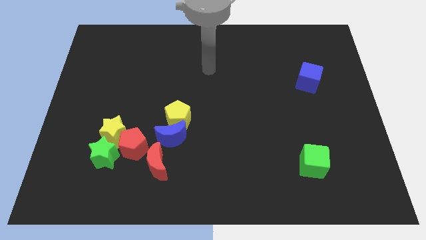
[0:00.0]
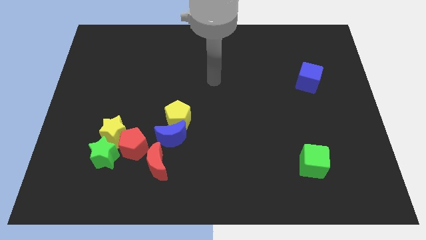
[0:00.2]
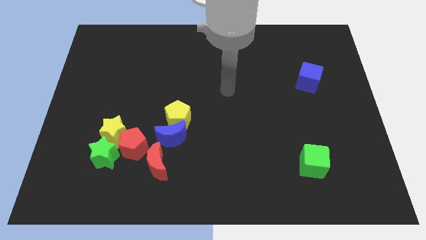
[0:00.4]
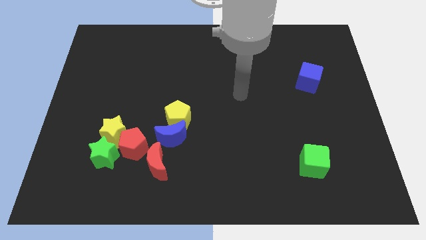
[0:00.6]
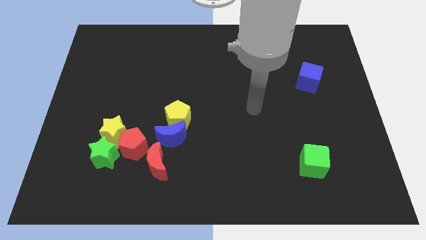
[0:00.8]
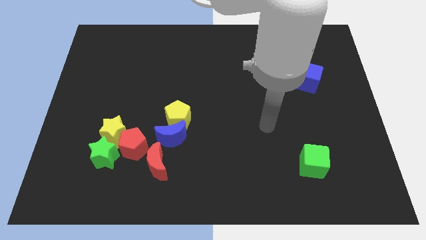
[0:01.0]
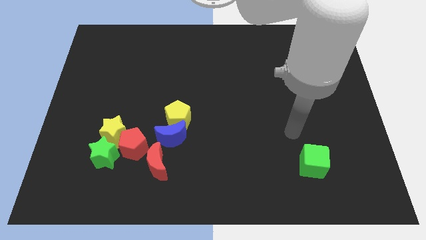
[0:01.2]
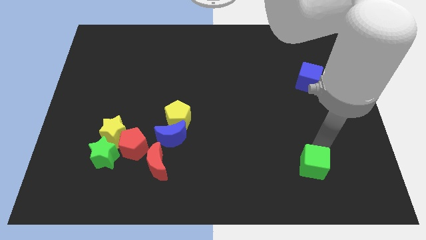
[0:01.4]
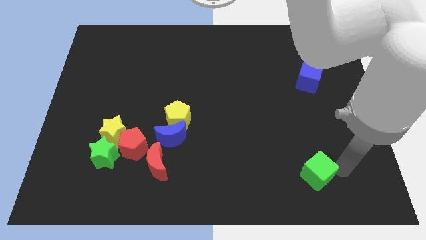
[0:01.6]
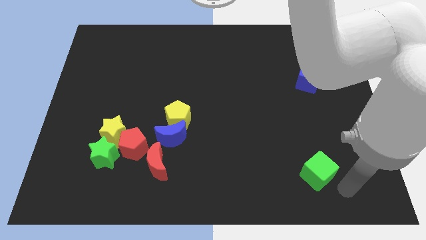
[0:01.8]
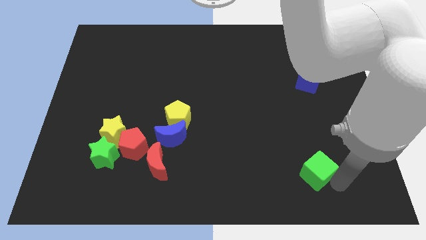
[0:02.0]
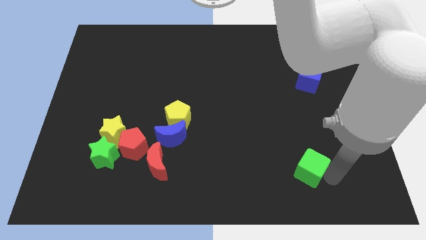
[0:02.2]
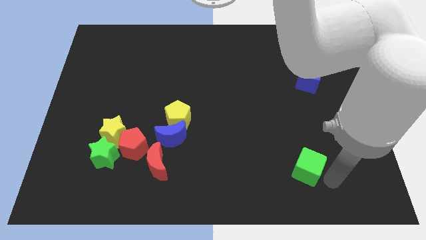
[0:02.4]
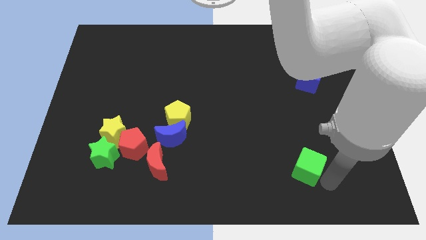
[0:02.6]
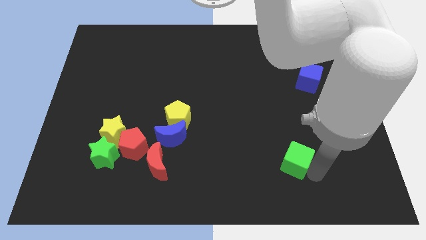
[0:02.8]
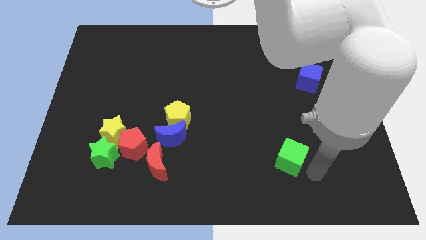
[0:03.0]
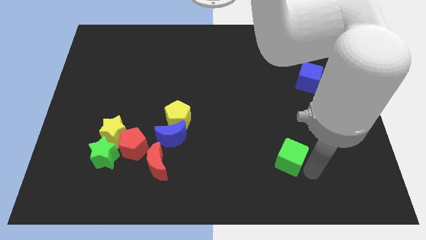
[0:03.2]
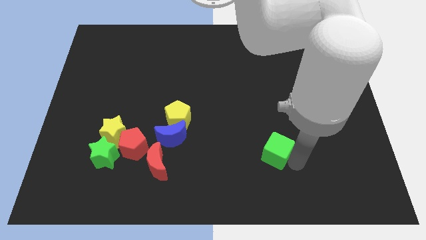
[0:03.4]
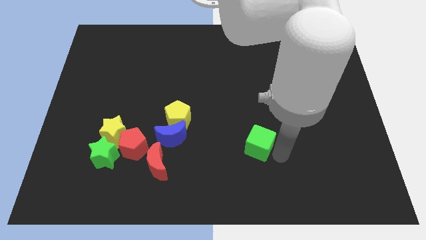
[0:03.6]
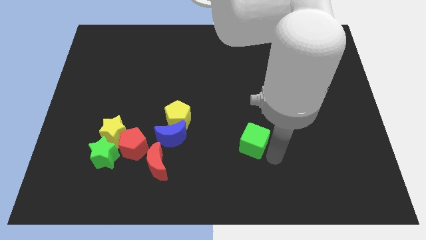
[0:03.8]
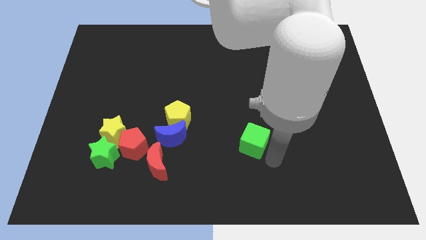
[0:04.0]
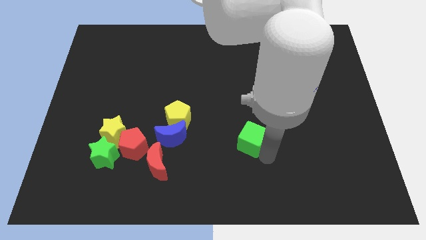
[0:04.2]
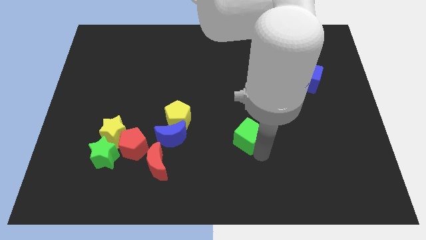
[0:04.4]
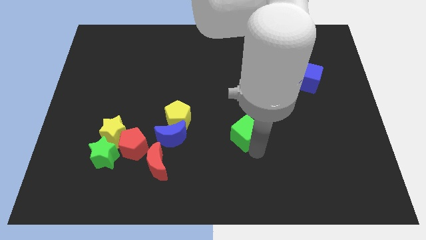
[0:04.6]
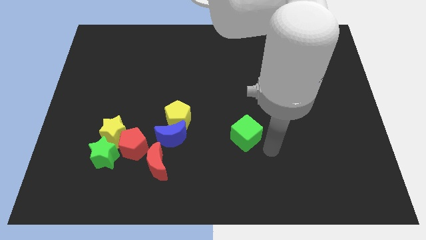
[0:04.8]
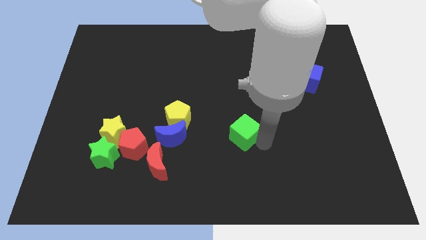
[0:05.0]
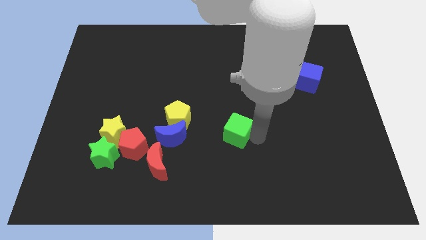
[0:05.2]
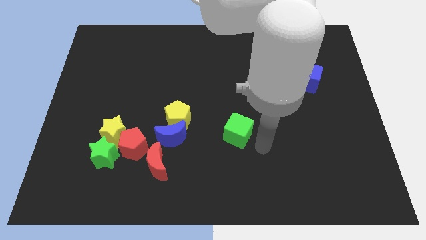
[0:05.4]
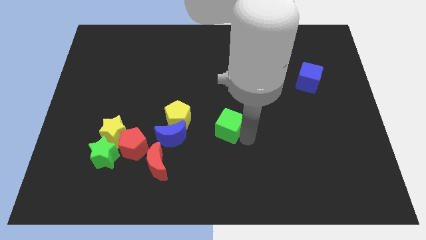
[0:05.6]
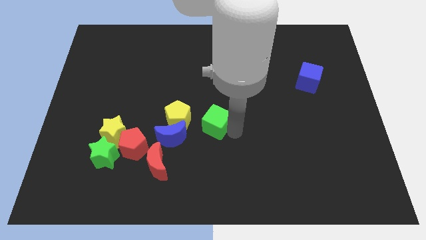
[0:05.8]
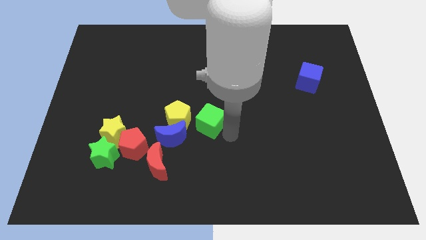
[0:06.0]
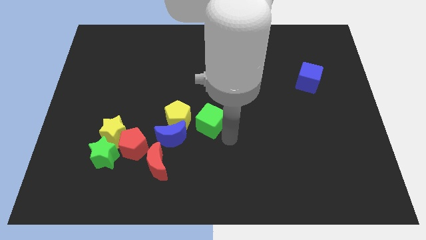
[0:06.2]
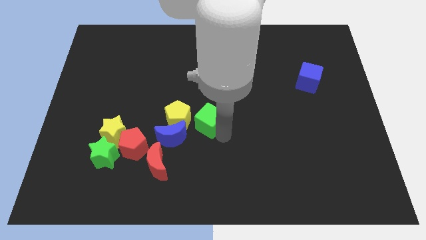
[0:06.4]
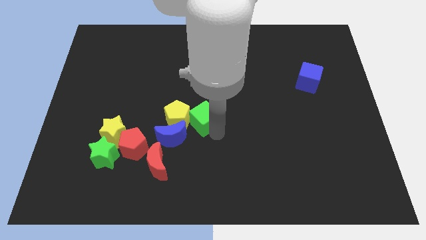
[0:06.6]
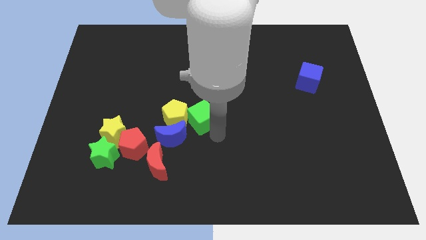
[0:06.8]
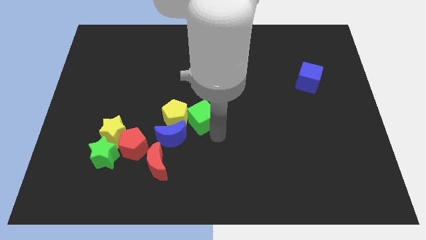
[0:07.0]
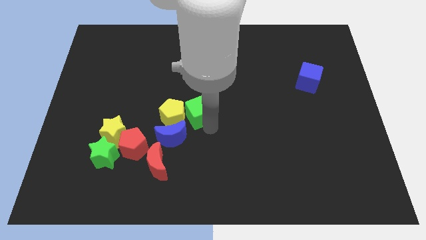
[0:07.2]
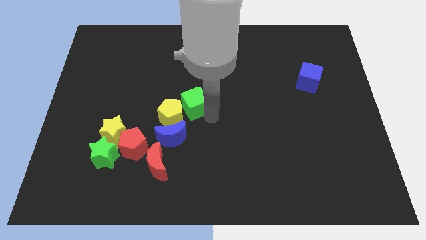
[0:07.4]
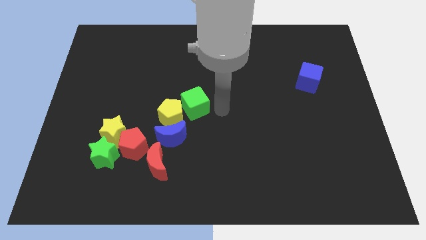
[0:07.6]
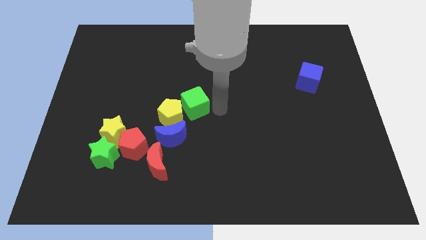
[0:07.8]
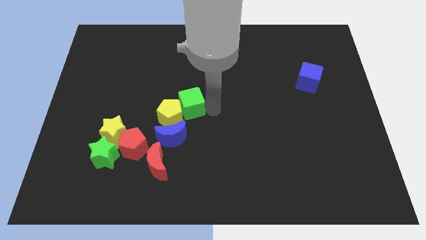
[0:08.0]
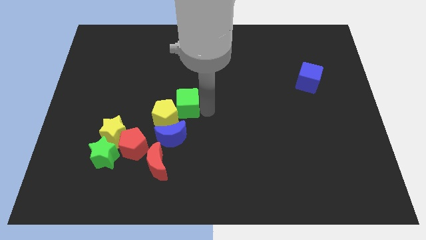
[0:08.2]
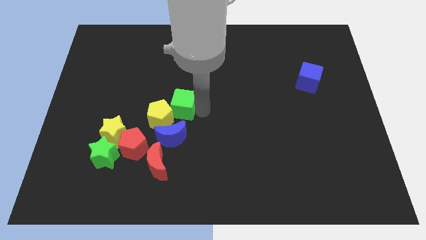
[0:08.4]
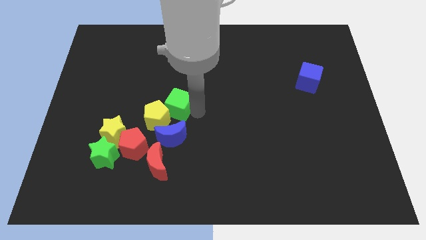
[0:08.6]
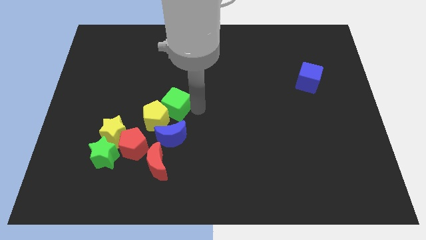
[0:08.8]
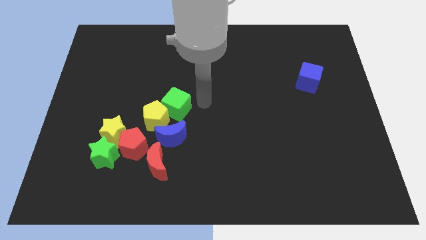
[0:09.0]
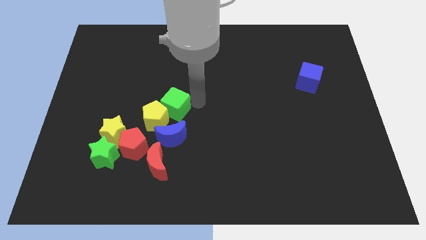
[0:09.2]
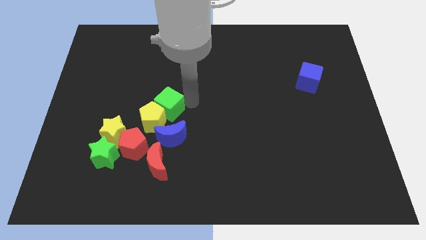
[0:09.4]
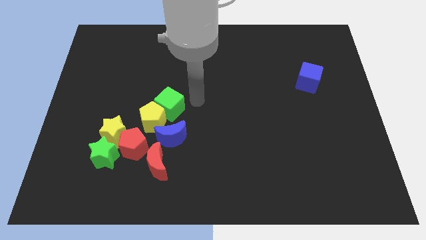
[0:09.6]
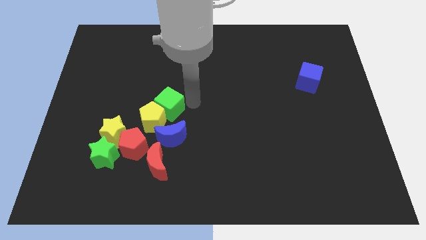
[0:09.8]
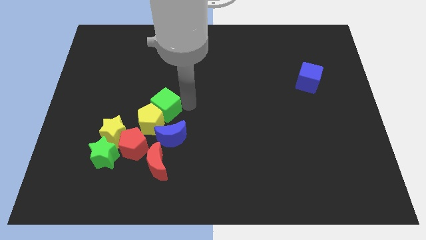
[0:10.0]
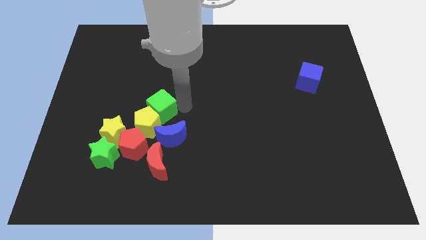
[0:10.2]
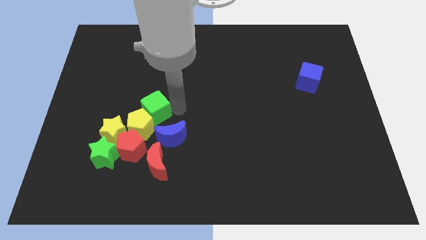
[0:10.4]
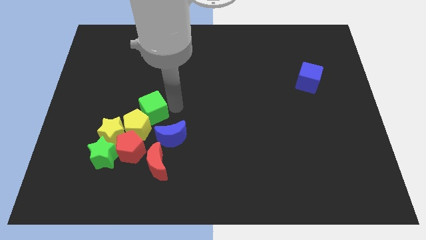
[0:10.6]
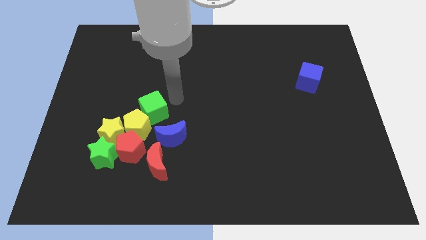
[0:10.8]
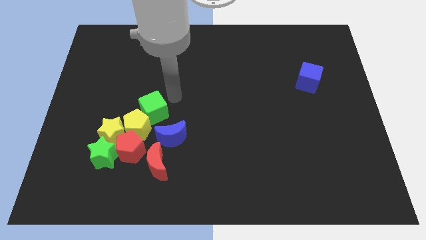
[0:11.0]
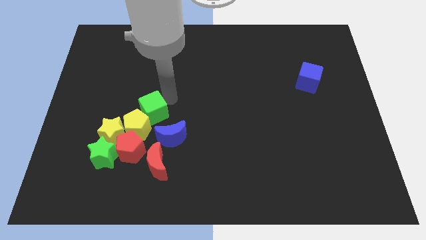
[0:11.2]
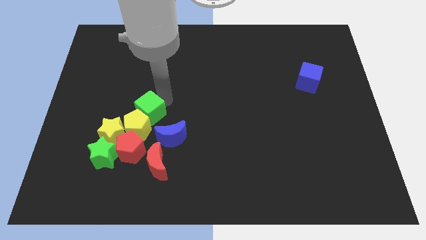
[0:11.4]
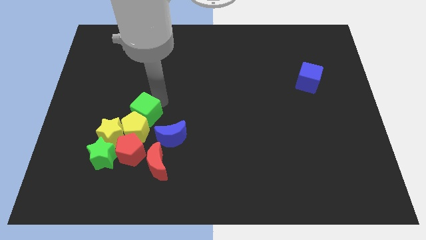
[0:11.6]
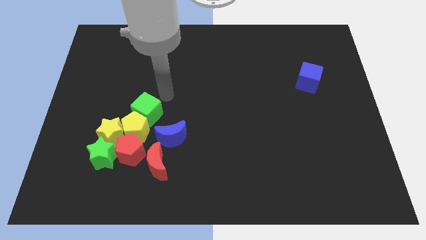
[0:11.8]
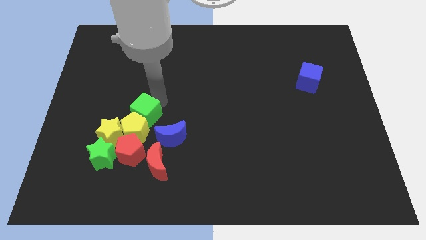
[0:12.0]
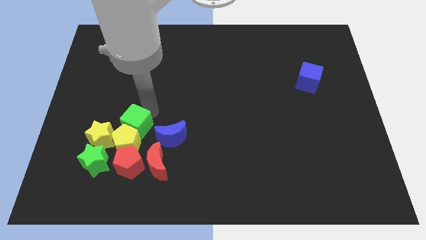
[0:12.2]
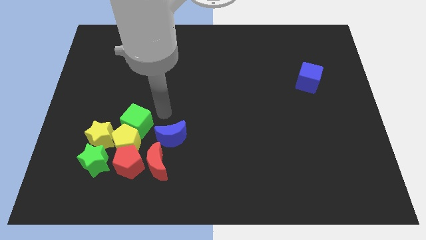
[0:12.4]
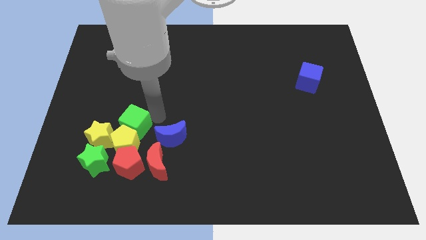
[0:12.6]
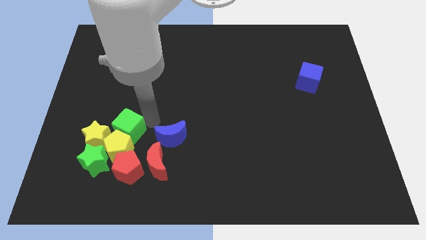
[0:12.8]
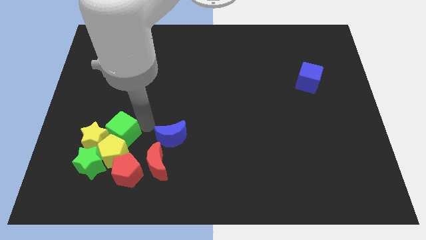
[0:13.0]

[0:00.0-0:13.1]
put the green cube next to the yellow star

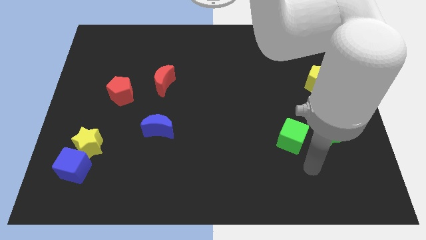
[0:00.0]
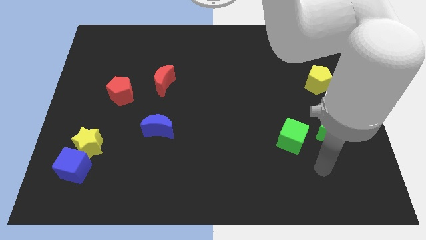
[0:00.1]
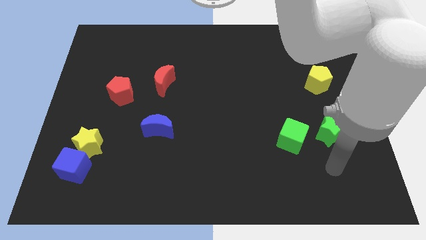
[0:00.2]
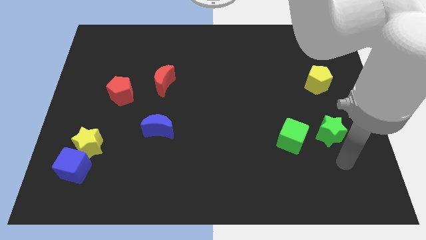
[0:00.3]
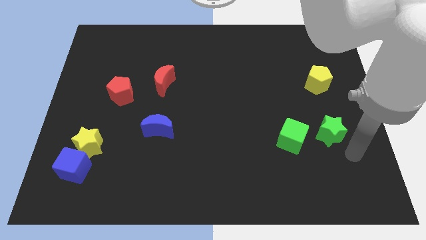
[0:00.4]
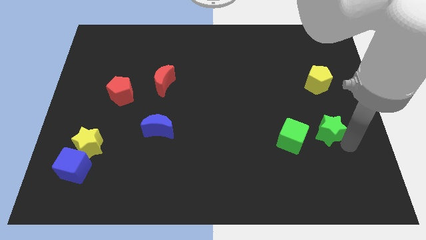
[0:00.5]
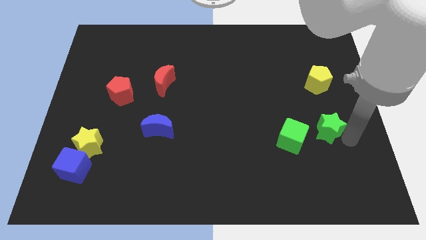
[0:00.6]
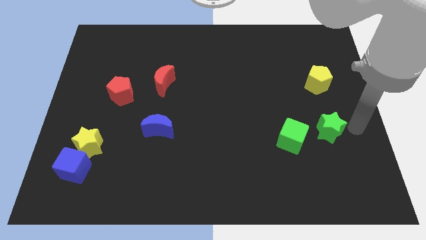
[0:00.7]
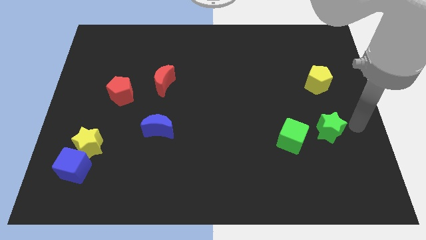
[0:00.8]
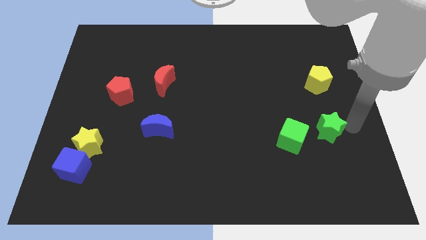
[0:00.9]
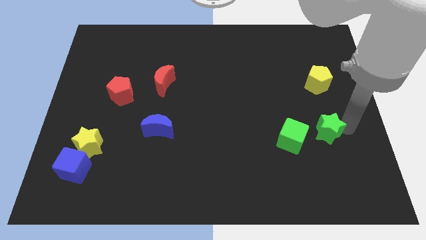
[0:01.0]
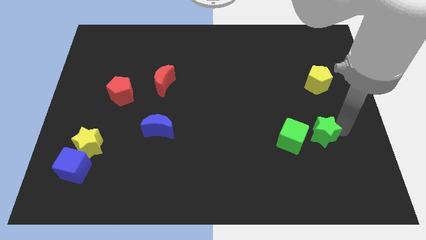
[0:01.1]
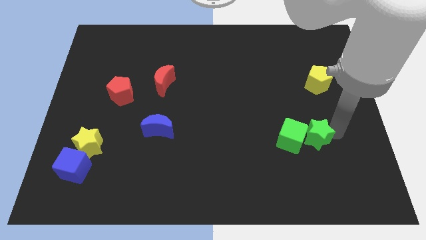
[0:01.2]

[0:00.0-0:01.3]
put the green star close to the green cube

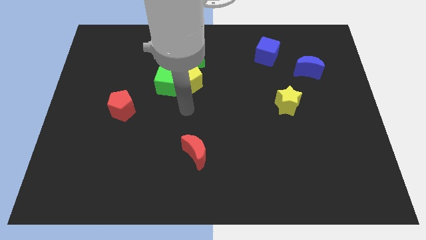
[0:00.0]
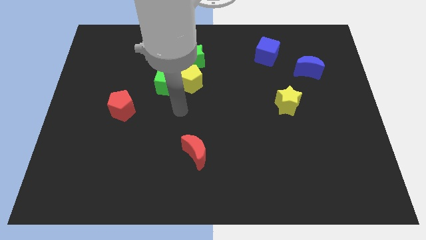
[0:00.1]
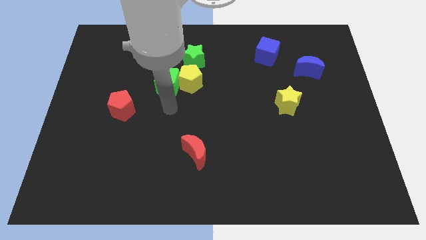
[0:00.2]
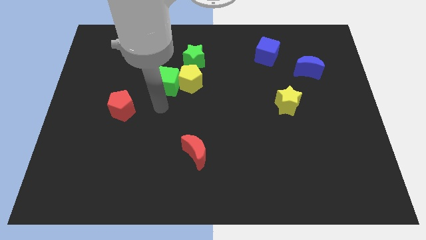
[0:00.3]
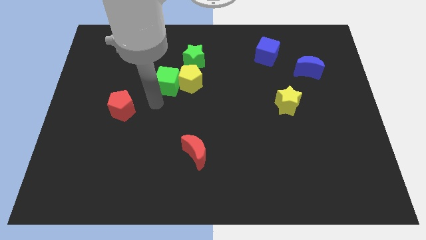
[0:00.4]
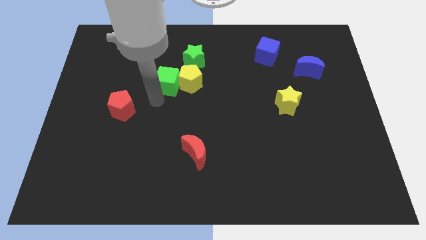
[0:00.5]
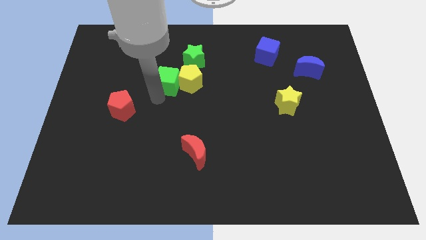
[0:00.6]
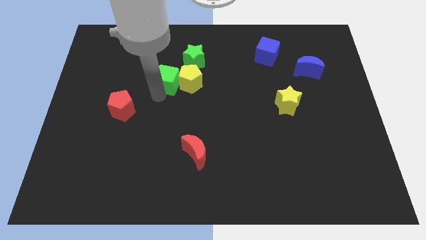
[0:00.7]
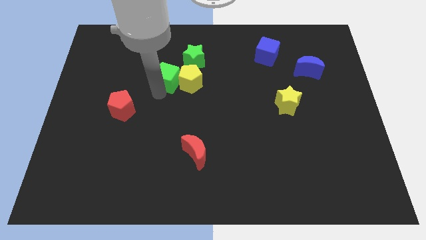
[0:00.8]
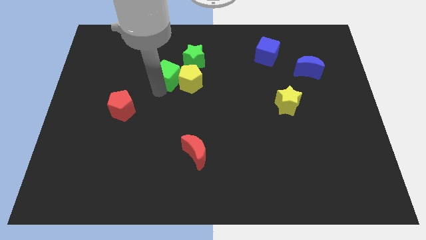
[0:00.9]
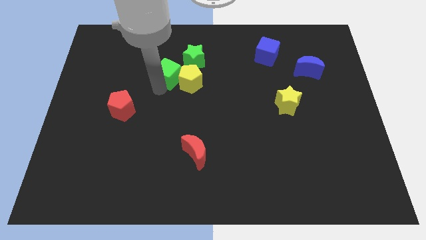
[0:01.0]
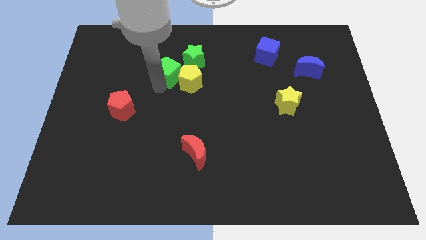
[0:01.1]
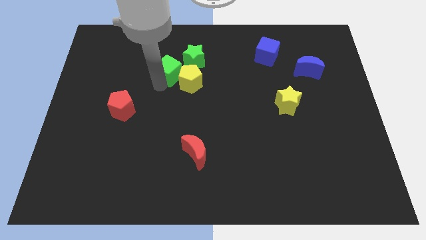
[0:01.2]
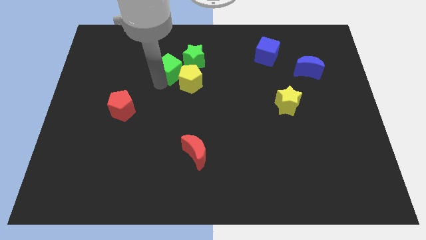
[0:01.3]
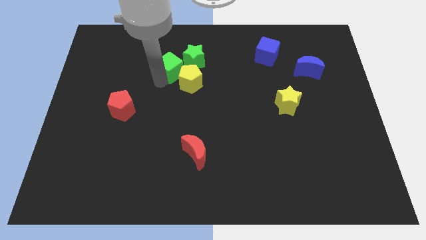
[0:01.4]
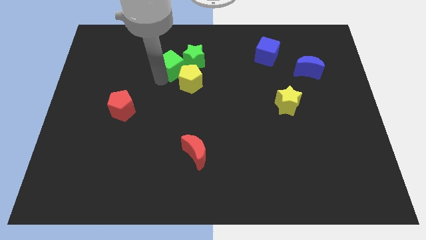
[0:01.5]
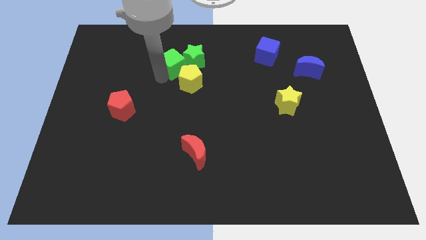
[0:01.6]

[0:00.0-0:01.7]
push the green cube to the green star
